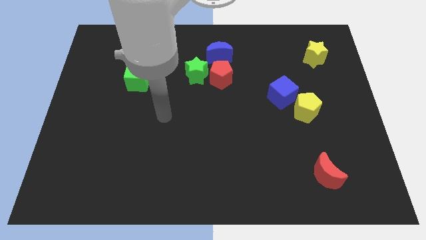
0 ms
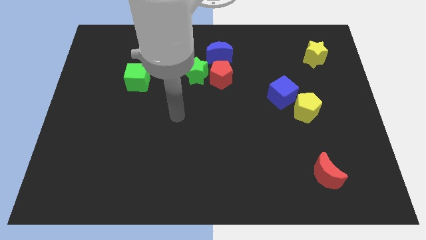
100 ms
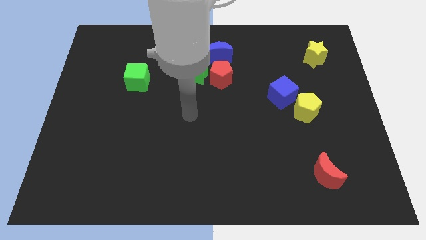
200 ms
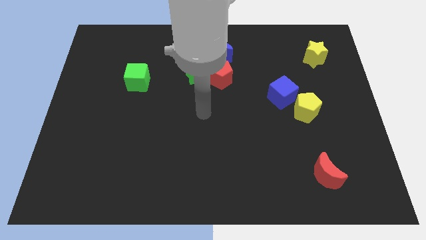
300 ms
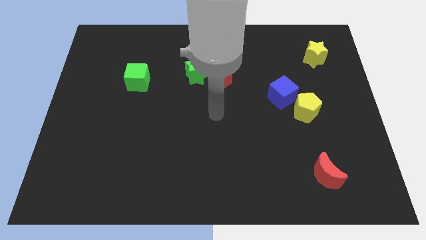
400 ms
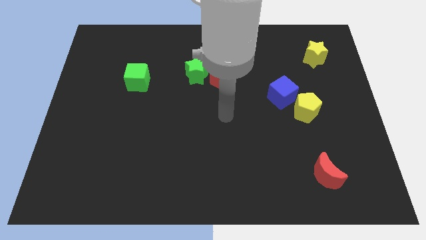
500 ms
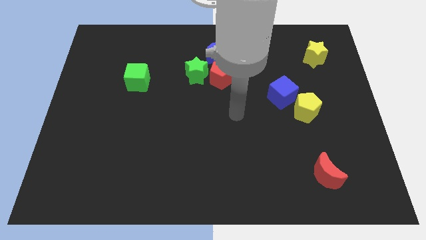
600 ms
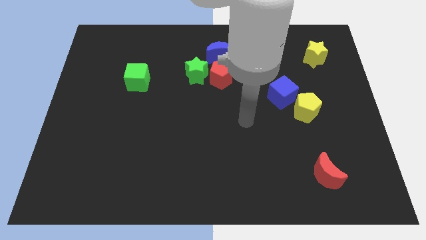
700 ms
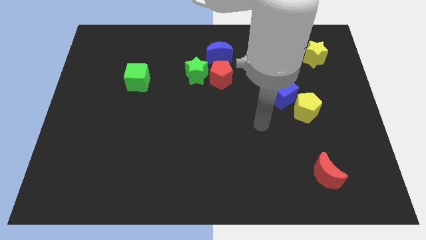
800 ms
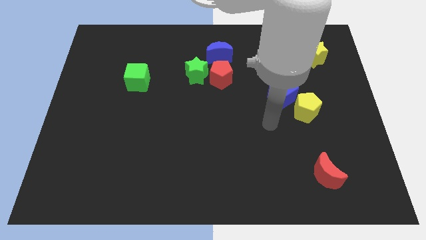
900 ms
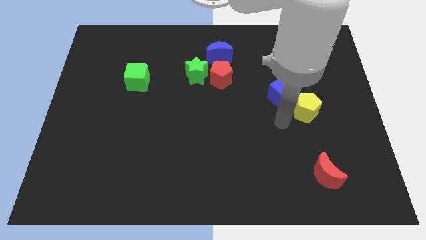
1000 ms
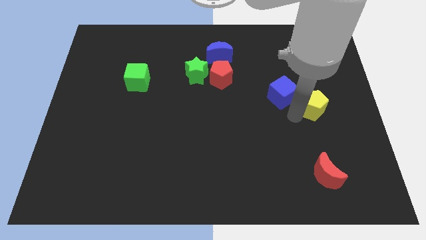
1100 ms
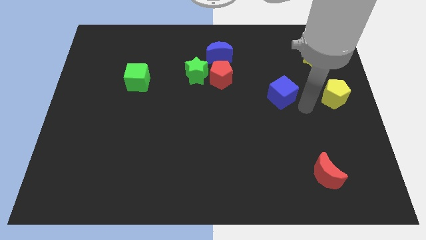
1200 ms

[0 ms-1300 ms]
pull the blue cube apart from the yellow pentagon

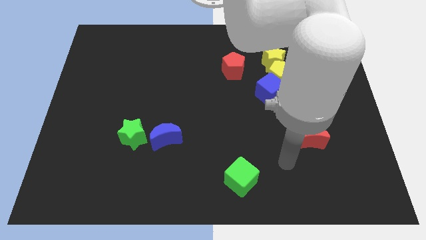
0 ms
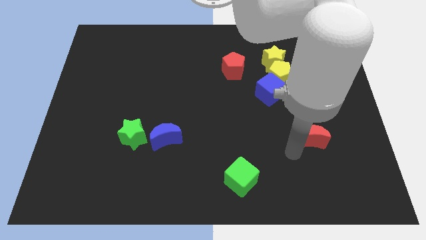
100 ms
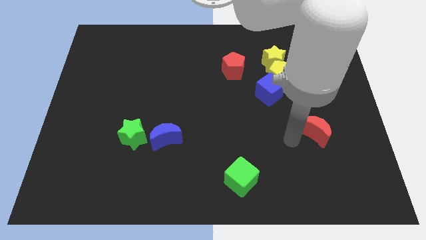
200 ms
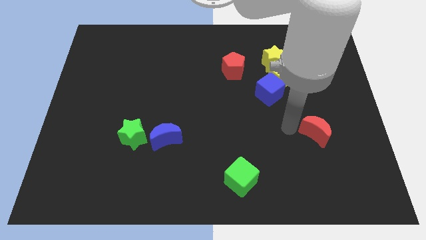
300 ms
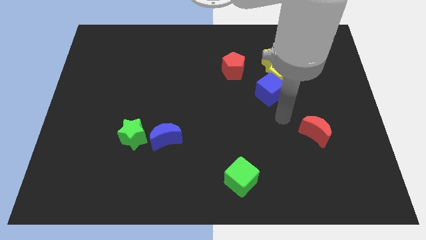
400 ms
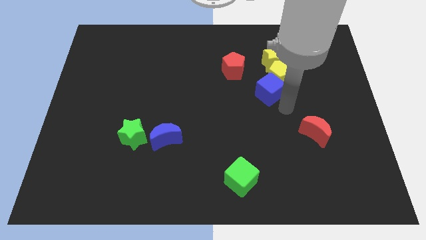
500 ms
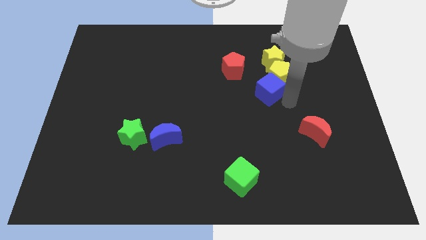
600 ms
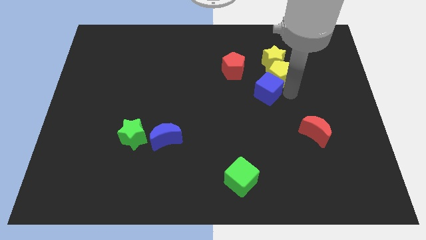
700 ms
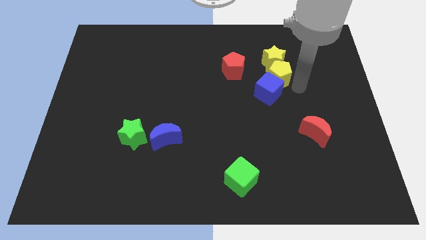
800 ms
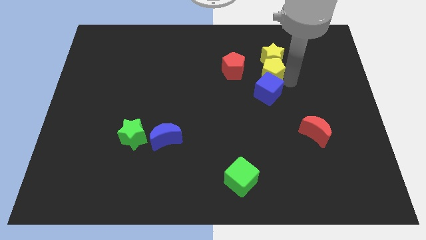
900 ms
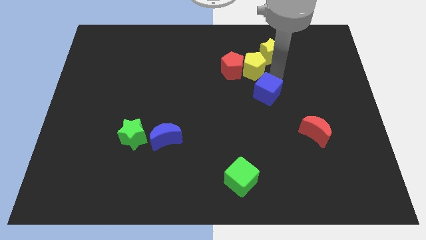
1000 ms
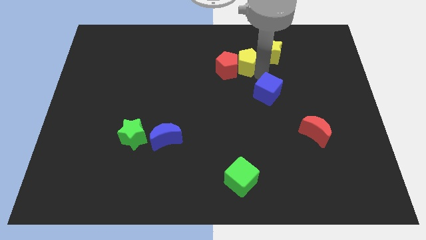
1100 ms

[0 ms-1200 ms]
move the blue cube away from the yellow pentagon

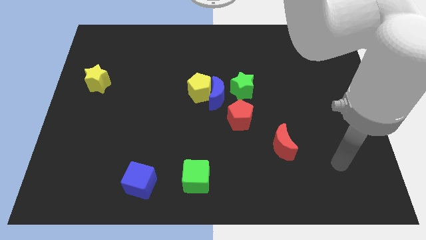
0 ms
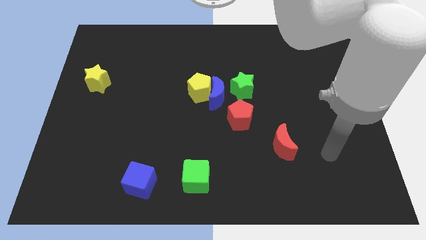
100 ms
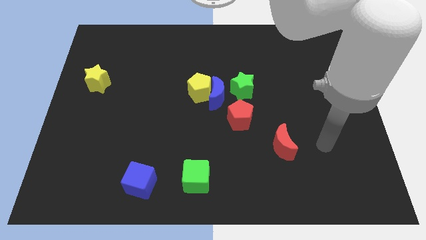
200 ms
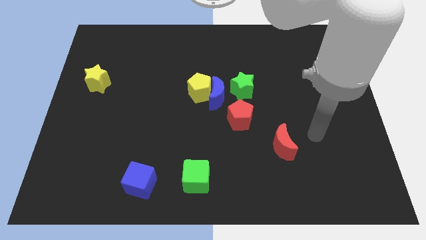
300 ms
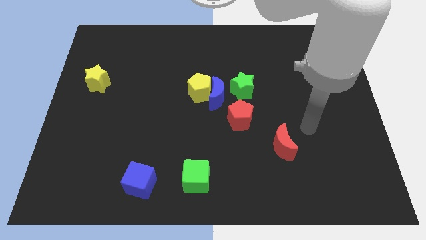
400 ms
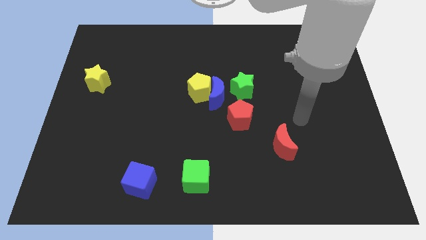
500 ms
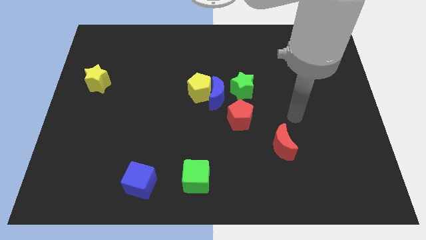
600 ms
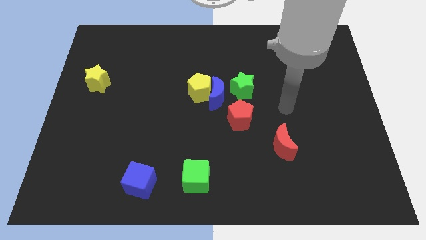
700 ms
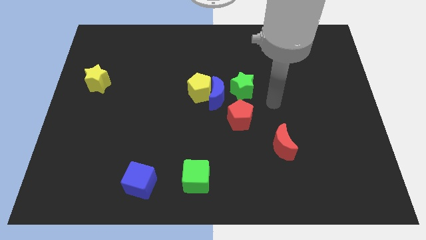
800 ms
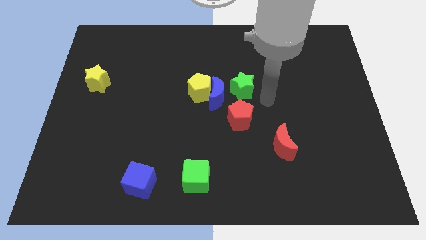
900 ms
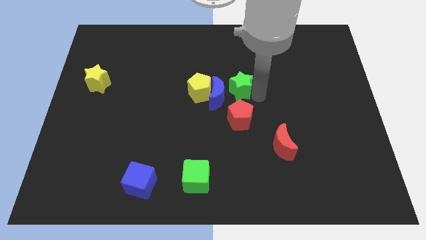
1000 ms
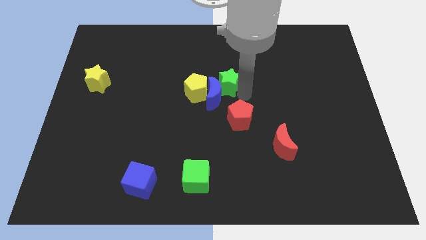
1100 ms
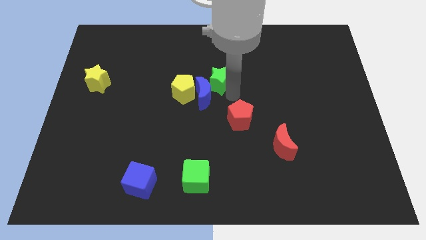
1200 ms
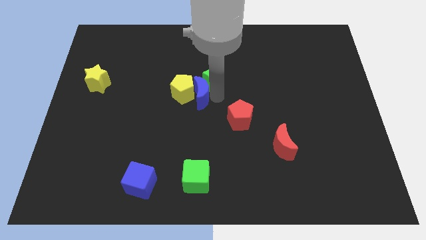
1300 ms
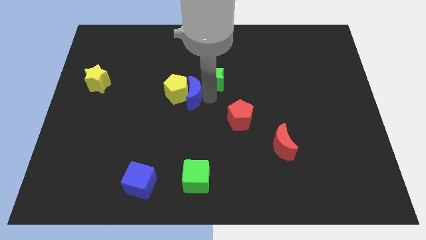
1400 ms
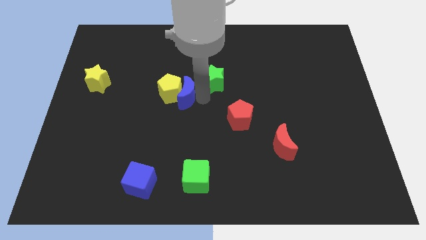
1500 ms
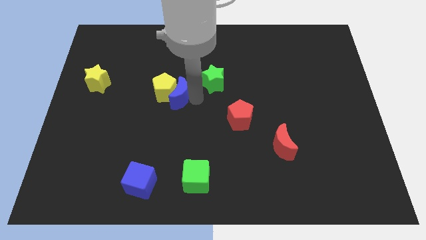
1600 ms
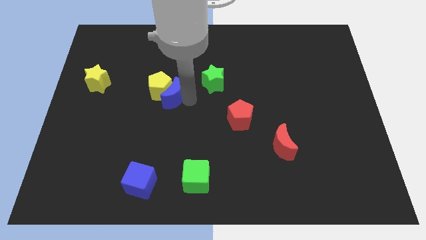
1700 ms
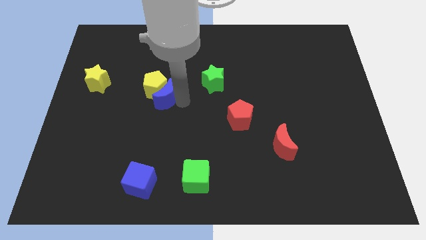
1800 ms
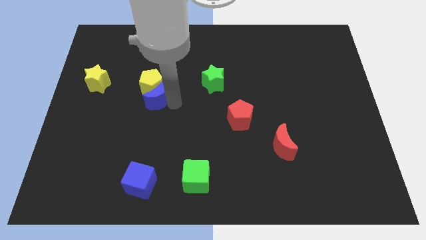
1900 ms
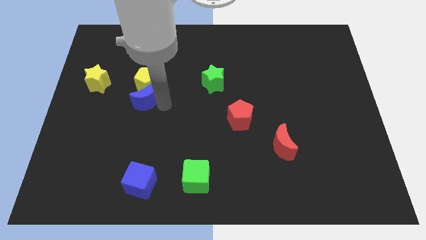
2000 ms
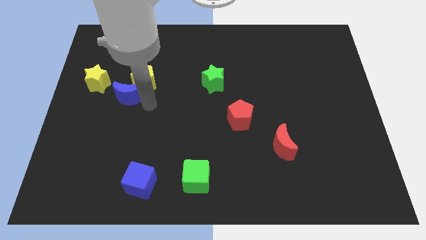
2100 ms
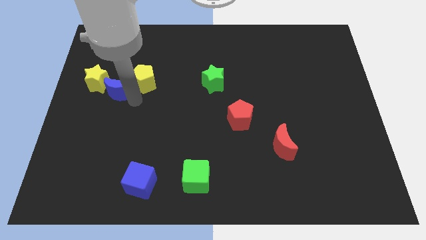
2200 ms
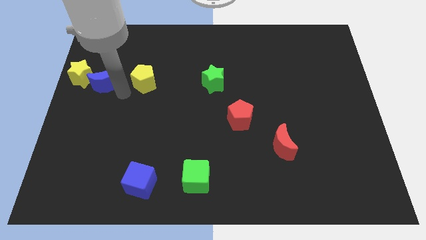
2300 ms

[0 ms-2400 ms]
pull the yellow pentagon apart from the blue moon

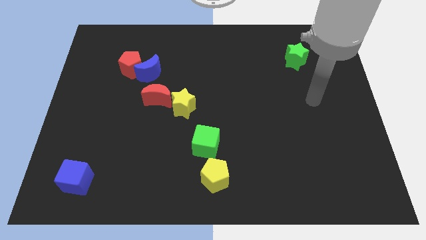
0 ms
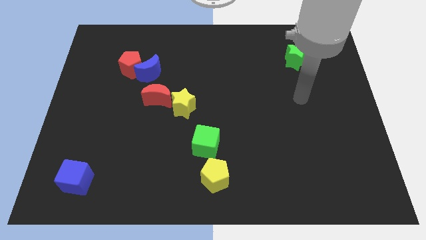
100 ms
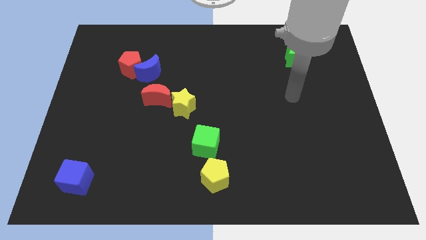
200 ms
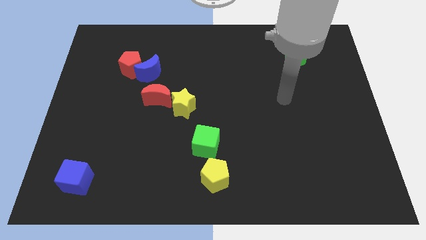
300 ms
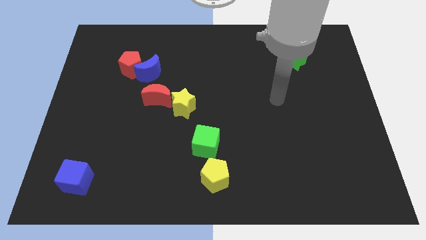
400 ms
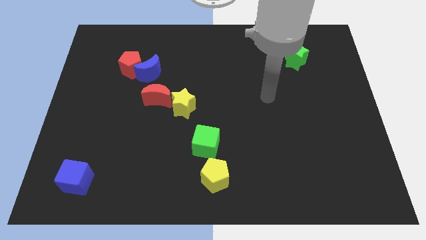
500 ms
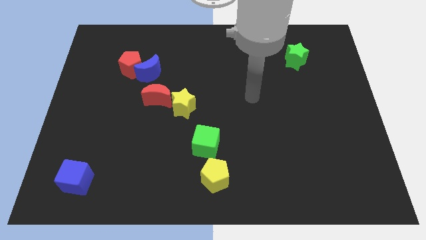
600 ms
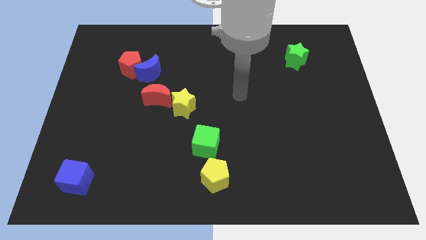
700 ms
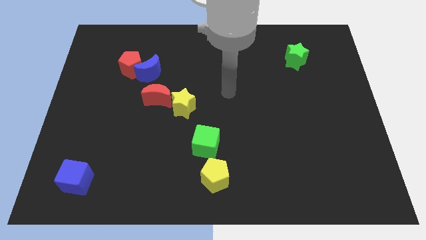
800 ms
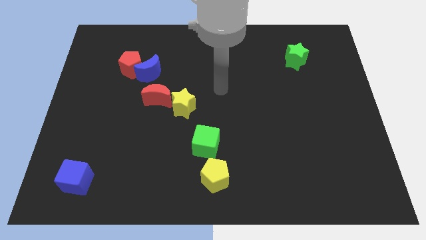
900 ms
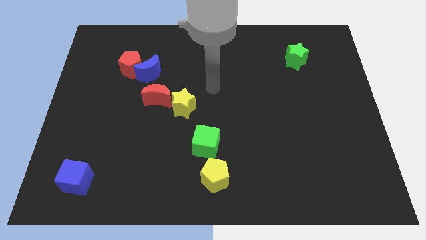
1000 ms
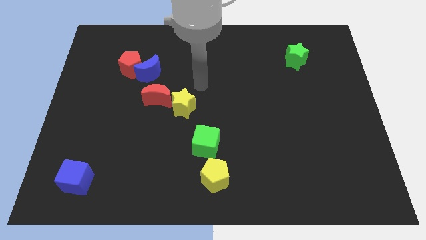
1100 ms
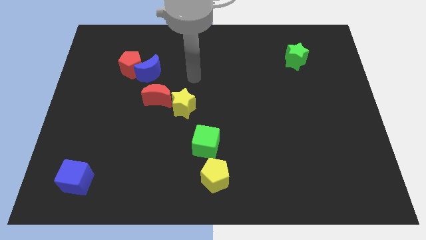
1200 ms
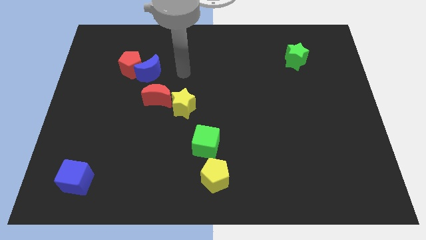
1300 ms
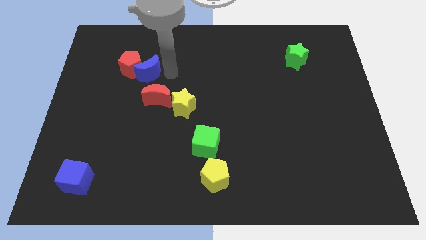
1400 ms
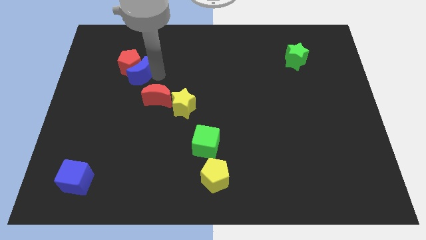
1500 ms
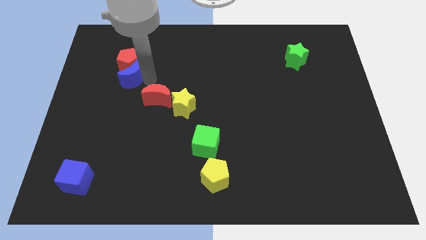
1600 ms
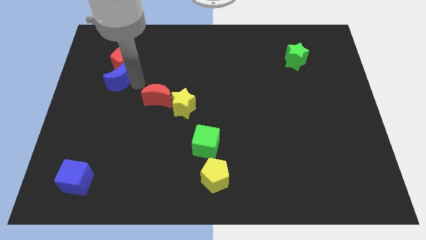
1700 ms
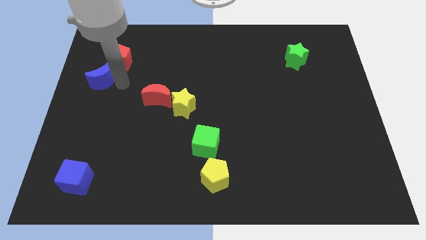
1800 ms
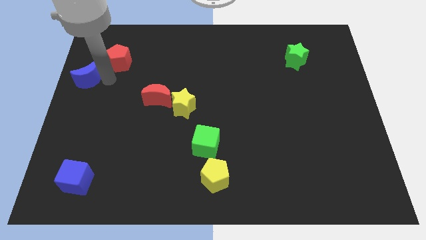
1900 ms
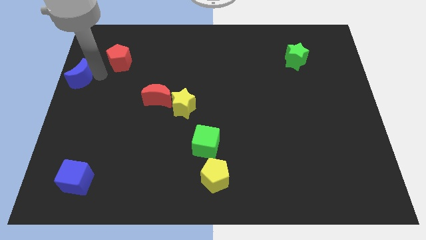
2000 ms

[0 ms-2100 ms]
move the red pentagon away from the blue moon

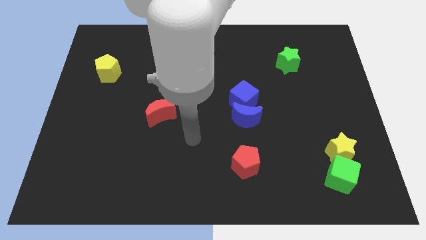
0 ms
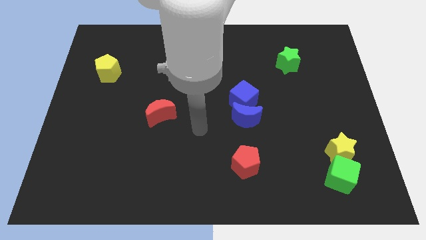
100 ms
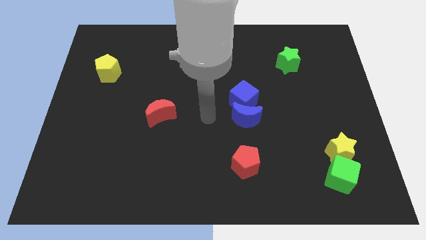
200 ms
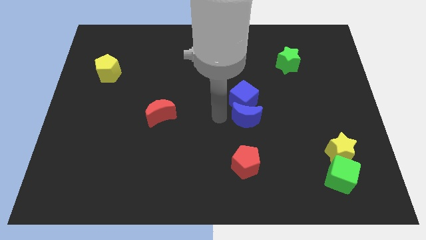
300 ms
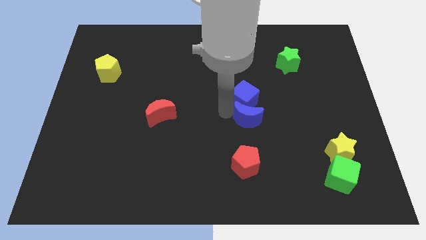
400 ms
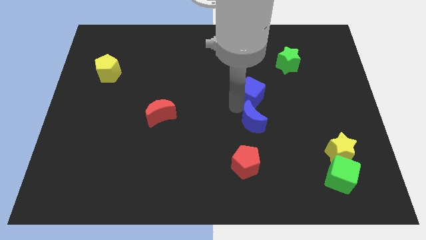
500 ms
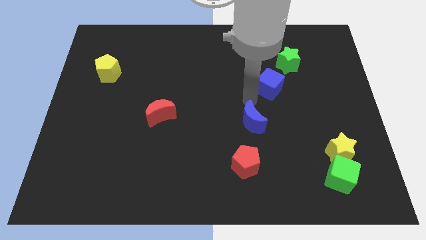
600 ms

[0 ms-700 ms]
pull the blue moon apart from the blue cube

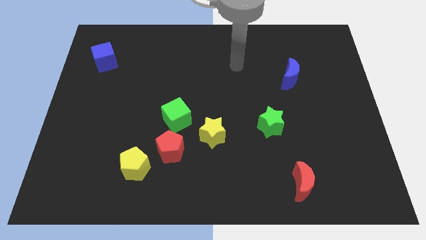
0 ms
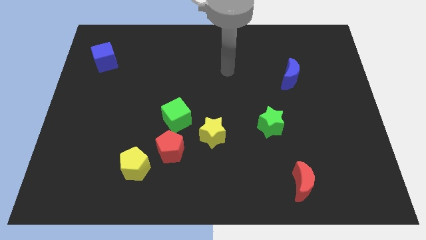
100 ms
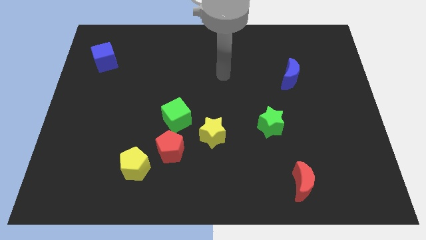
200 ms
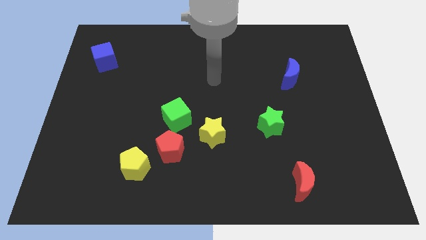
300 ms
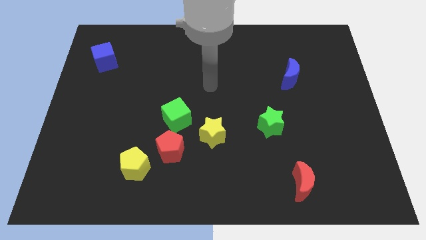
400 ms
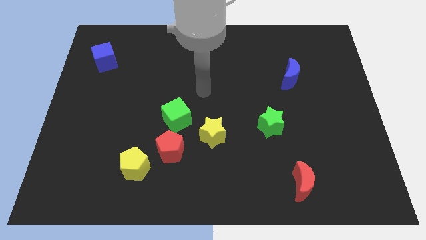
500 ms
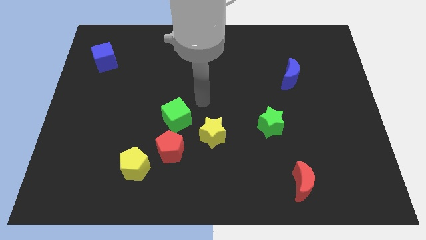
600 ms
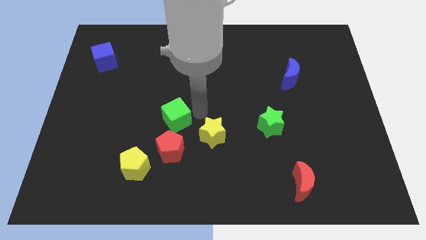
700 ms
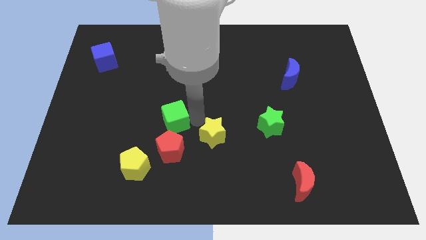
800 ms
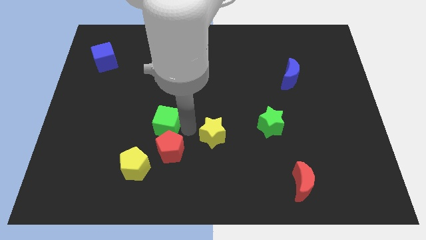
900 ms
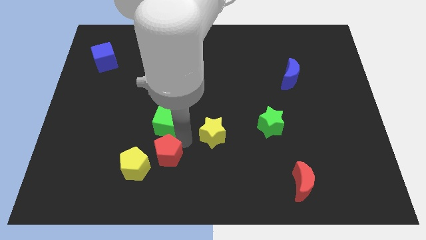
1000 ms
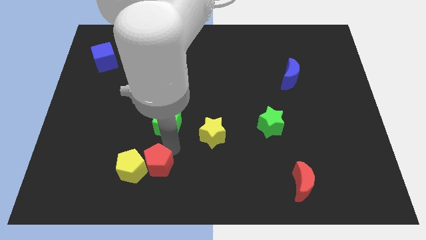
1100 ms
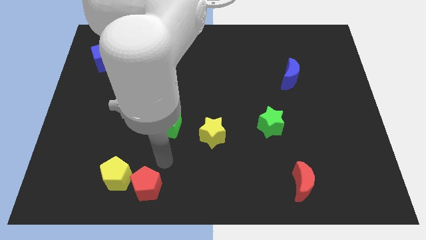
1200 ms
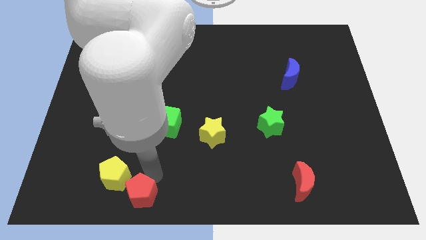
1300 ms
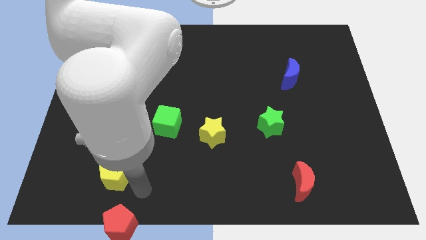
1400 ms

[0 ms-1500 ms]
separate the yellow pentagon from the red pentagon

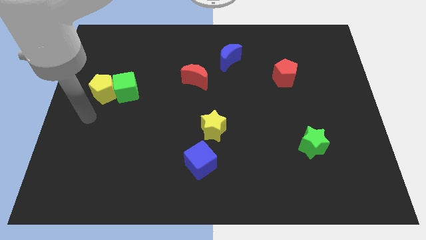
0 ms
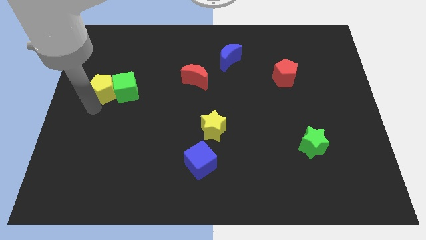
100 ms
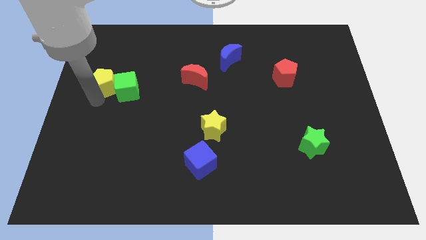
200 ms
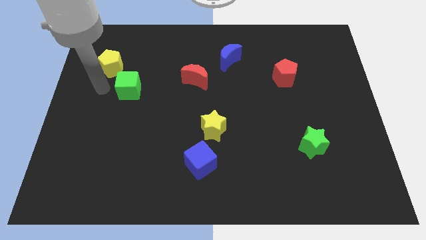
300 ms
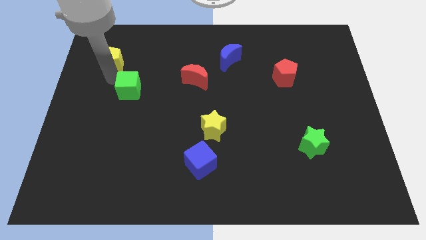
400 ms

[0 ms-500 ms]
pull the green cube apart from the yellow pentagon
